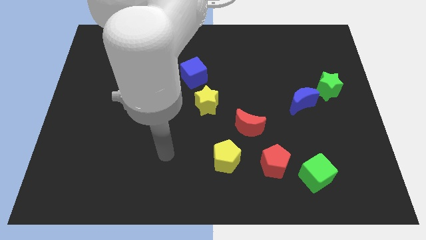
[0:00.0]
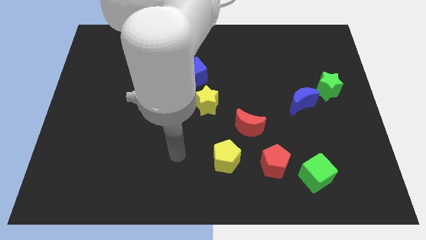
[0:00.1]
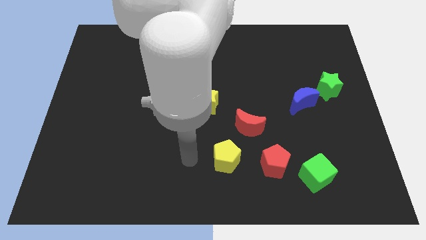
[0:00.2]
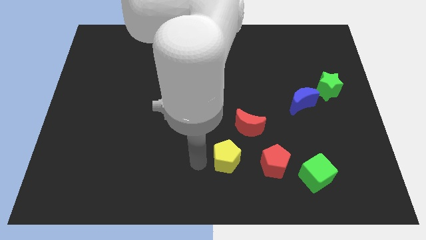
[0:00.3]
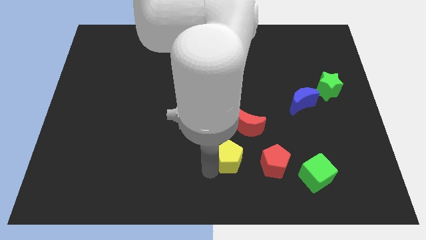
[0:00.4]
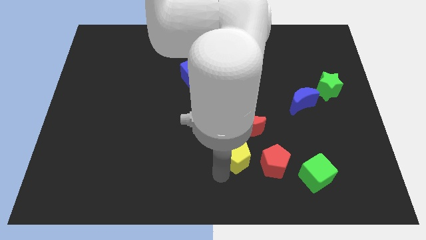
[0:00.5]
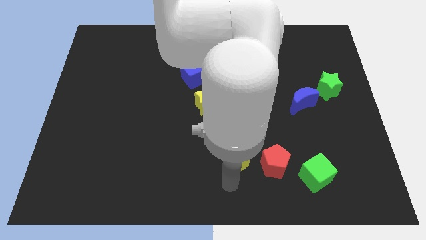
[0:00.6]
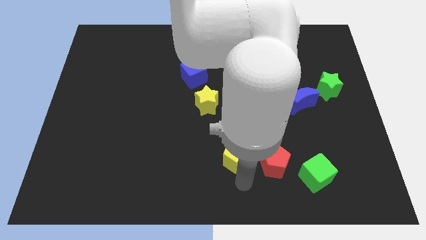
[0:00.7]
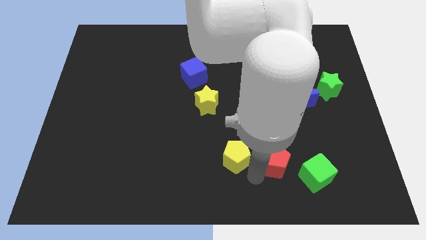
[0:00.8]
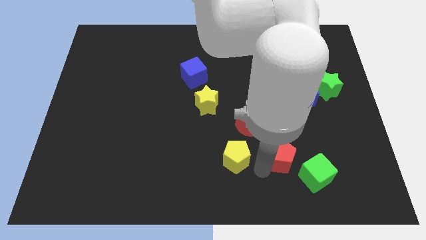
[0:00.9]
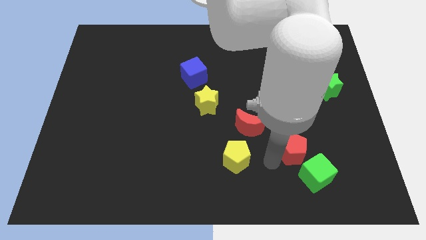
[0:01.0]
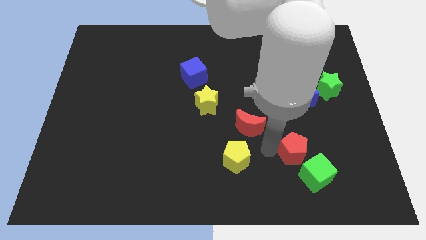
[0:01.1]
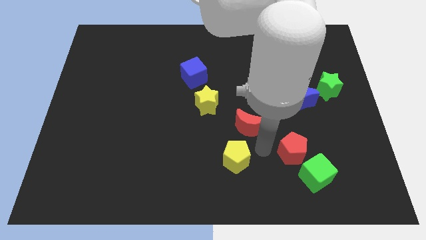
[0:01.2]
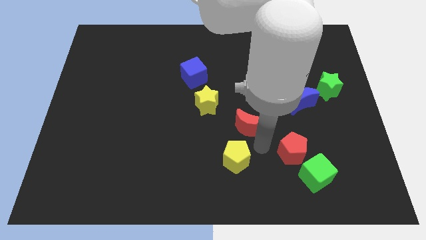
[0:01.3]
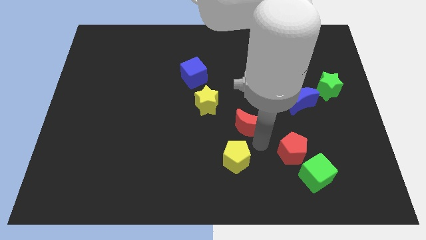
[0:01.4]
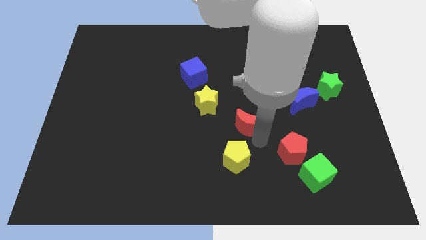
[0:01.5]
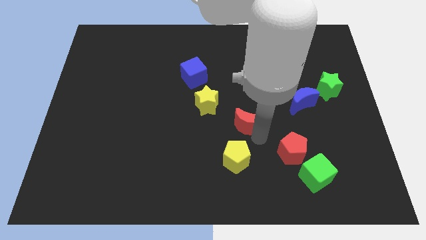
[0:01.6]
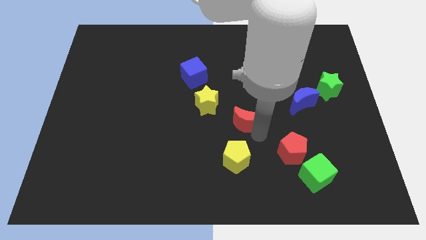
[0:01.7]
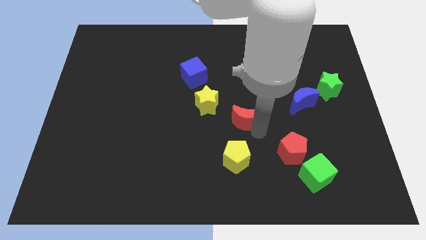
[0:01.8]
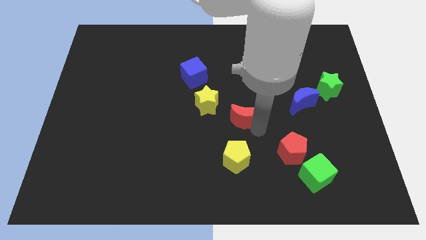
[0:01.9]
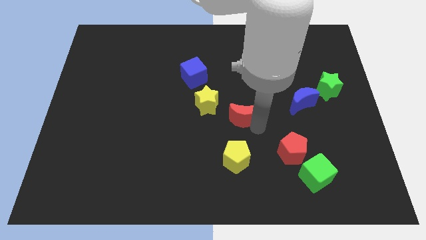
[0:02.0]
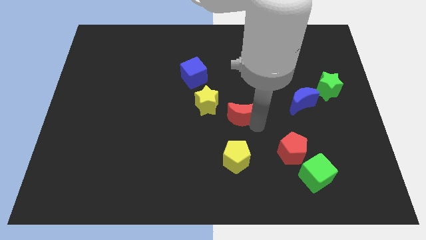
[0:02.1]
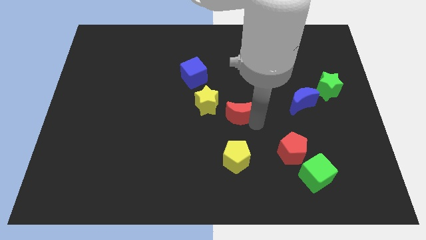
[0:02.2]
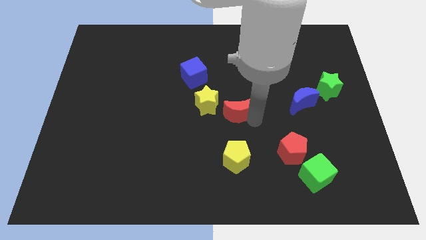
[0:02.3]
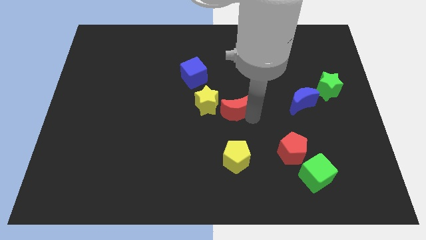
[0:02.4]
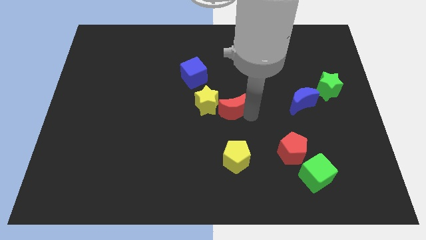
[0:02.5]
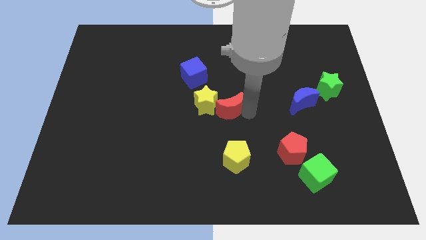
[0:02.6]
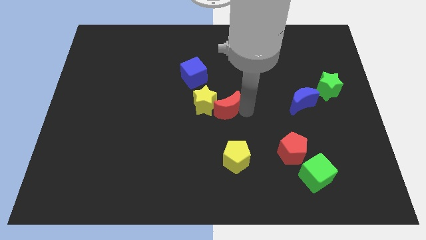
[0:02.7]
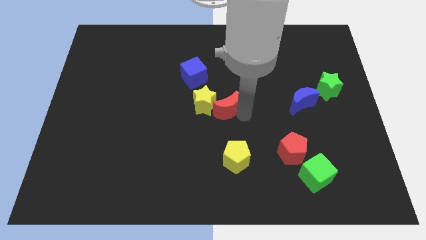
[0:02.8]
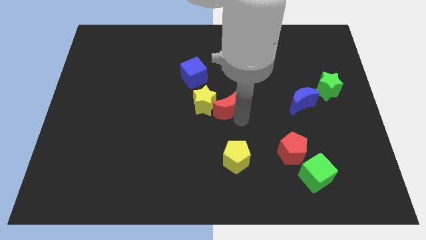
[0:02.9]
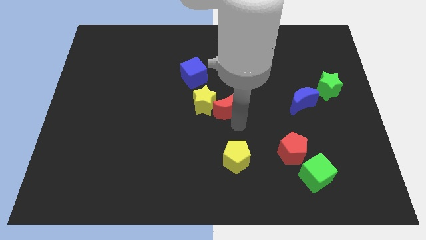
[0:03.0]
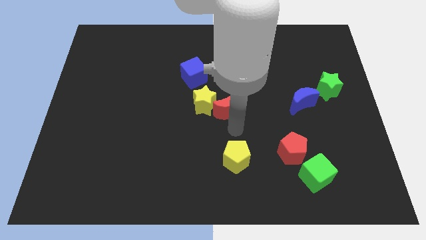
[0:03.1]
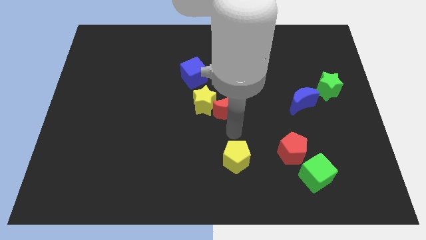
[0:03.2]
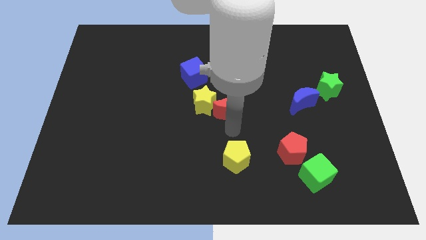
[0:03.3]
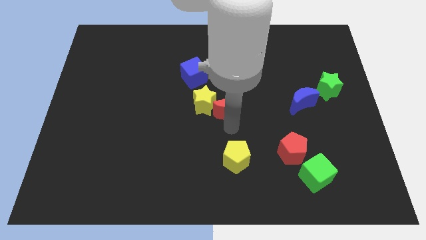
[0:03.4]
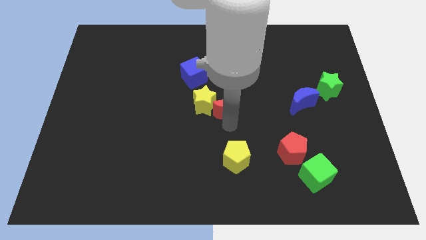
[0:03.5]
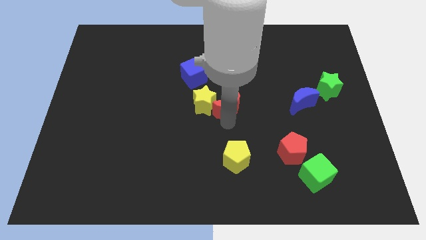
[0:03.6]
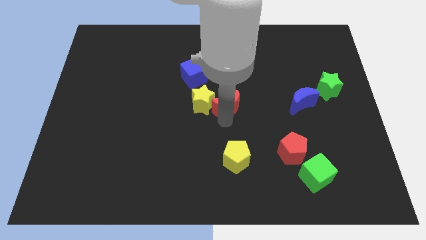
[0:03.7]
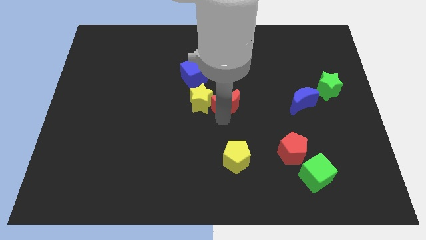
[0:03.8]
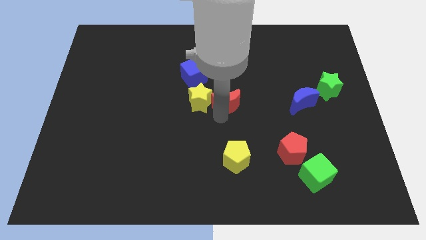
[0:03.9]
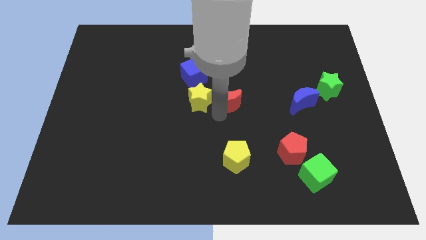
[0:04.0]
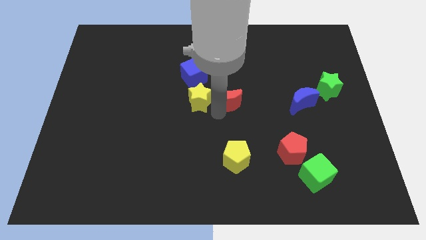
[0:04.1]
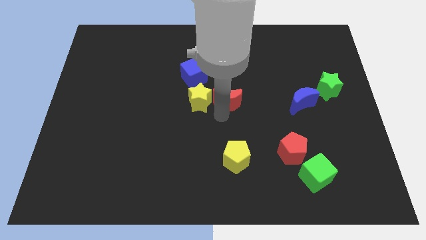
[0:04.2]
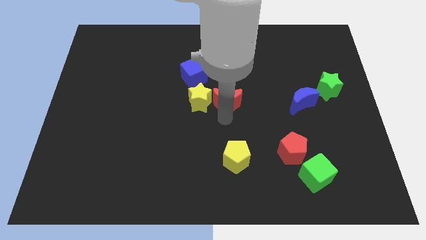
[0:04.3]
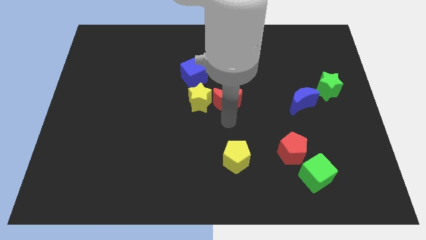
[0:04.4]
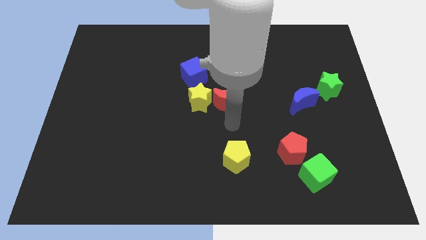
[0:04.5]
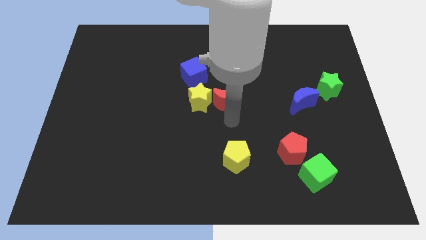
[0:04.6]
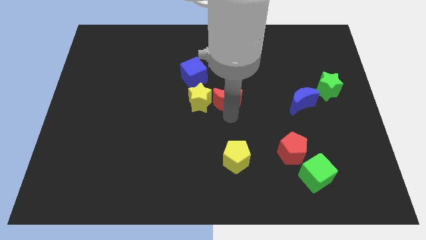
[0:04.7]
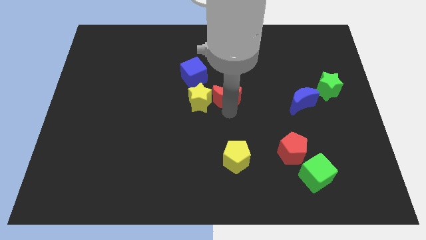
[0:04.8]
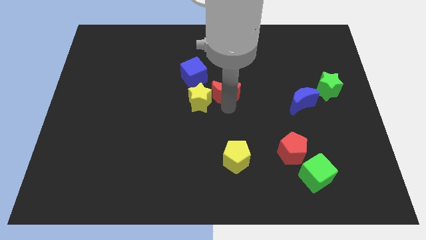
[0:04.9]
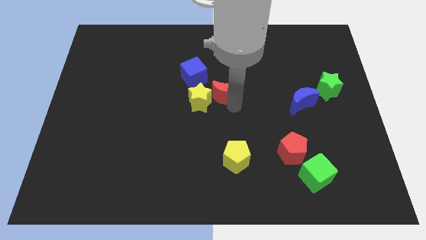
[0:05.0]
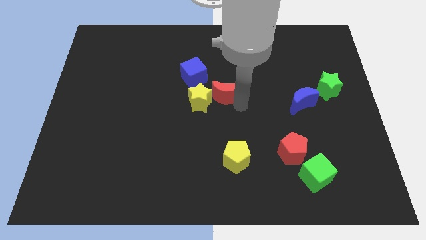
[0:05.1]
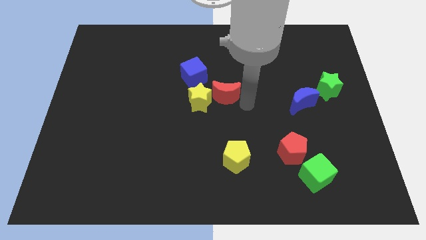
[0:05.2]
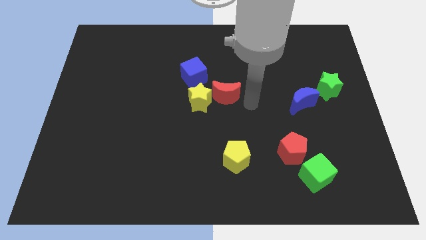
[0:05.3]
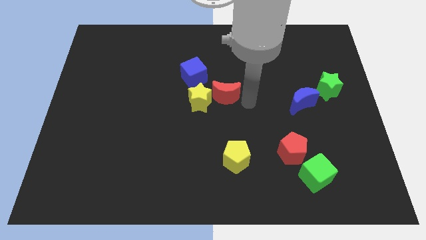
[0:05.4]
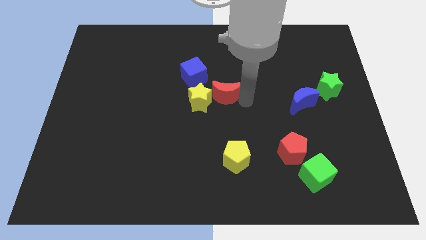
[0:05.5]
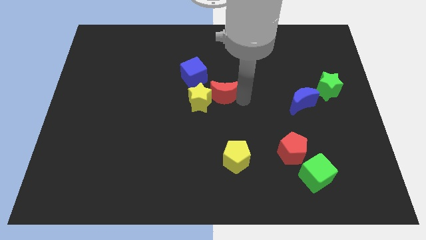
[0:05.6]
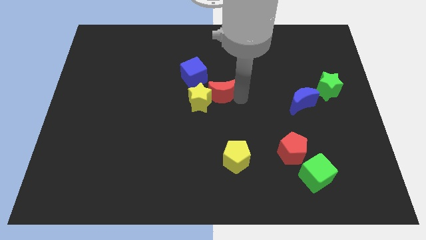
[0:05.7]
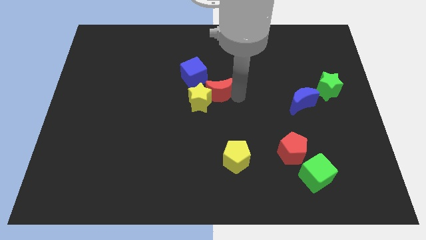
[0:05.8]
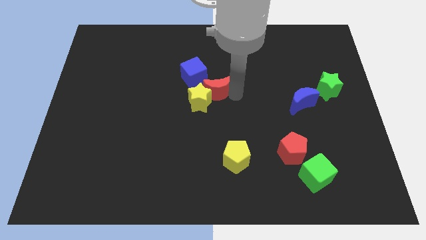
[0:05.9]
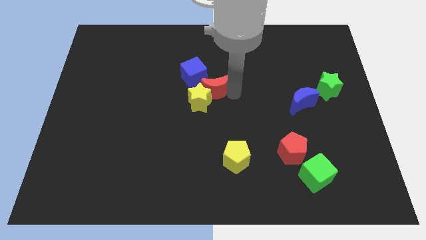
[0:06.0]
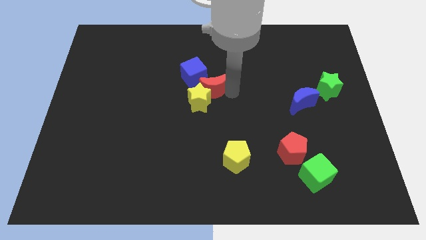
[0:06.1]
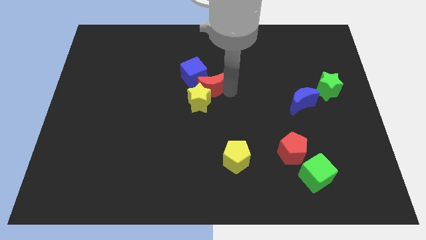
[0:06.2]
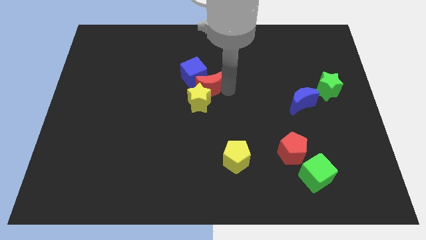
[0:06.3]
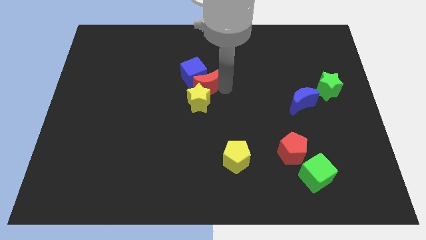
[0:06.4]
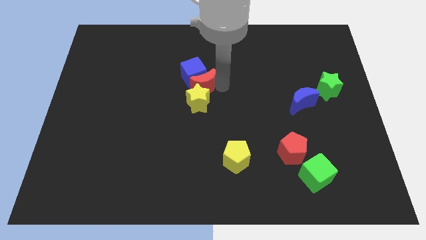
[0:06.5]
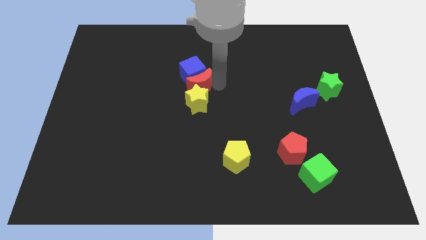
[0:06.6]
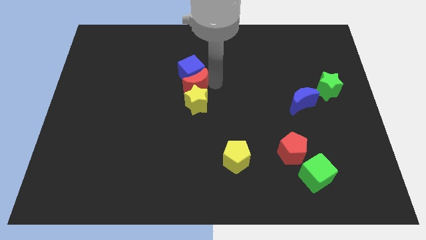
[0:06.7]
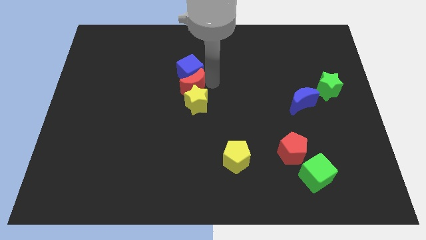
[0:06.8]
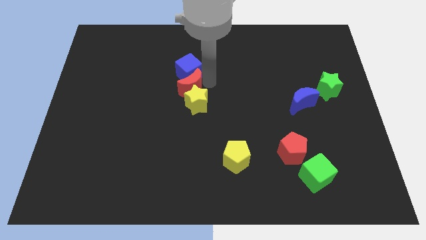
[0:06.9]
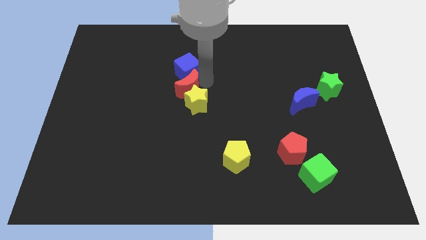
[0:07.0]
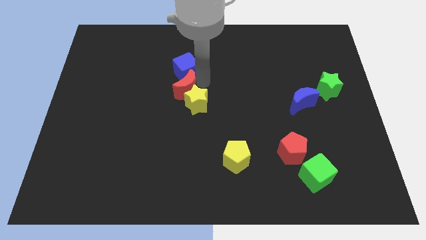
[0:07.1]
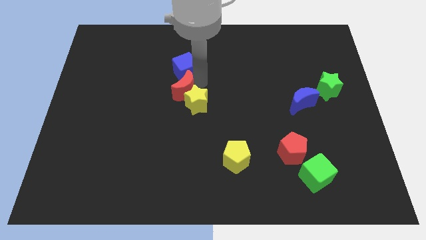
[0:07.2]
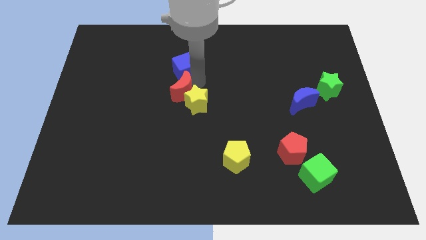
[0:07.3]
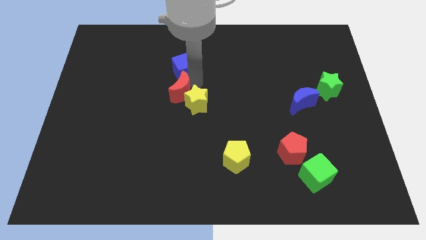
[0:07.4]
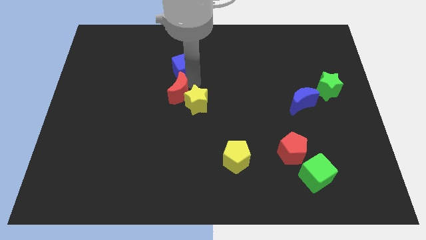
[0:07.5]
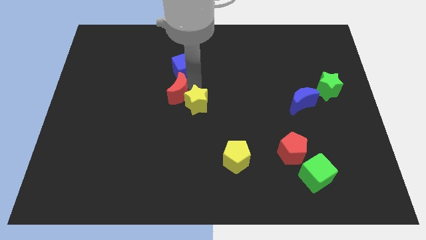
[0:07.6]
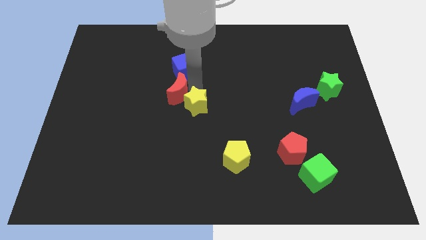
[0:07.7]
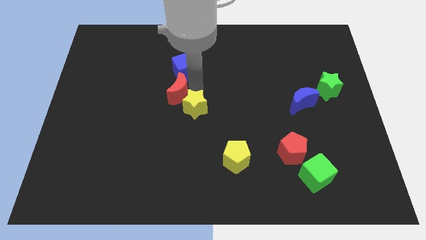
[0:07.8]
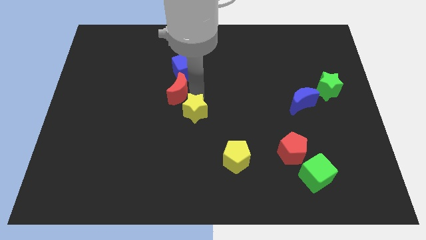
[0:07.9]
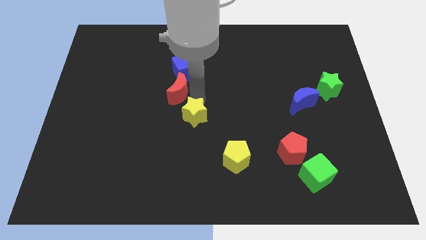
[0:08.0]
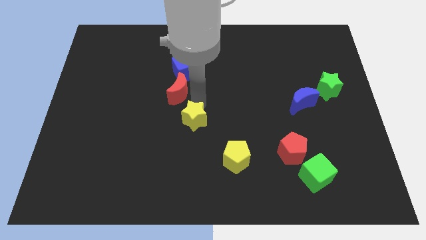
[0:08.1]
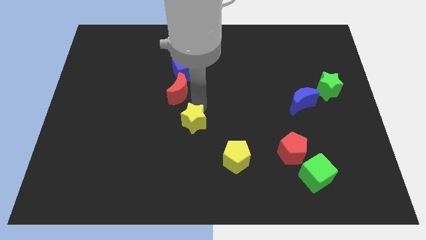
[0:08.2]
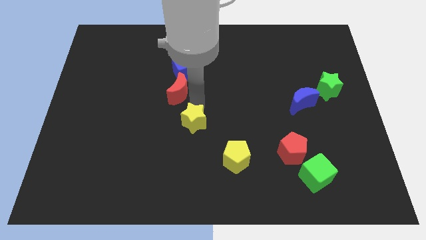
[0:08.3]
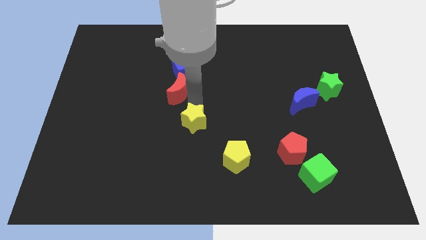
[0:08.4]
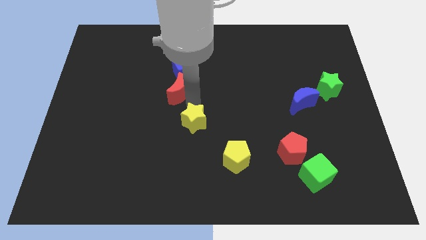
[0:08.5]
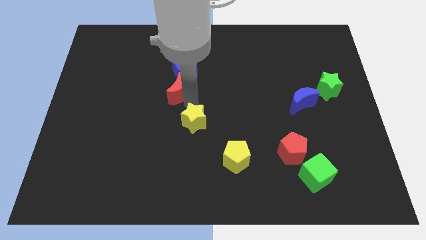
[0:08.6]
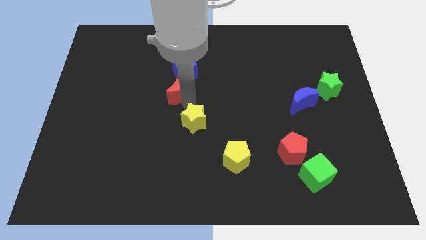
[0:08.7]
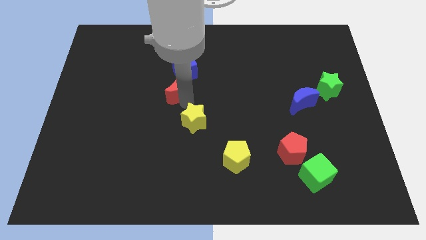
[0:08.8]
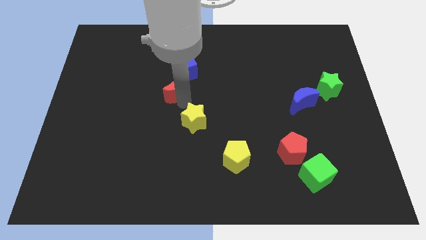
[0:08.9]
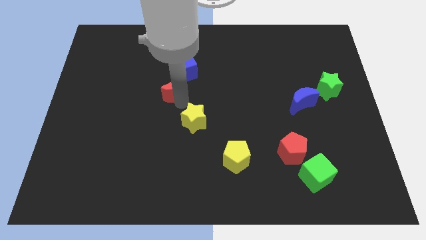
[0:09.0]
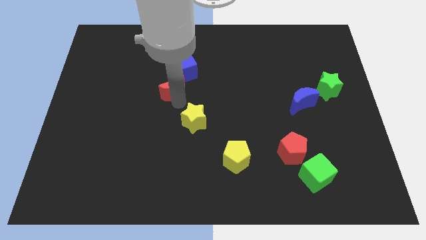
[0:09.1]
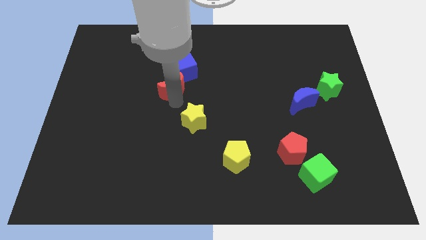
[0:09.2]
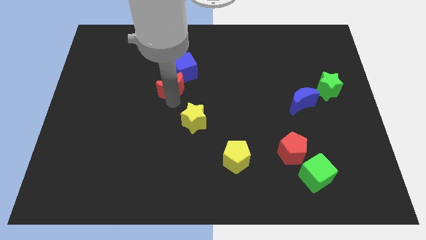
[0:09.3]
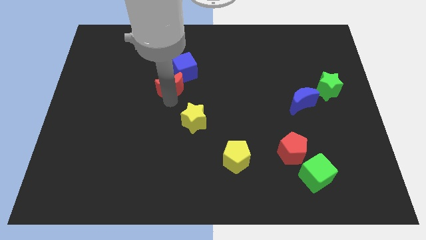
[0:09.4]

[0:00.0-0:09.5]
move the red moon upwards and left diagonally
